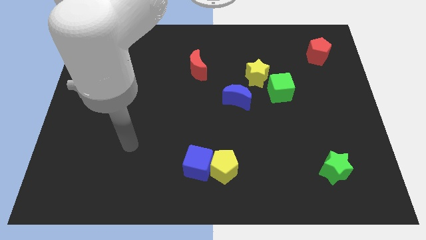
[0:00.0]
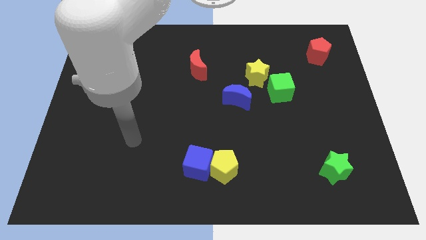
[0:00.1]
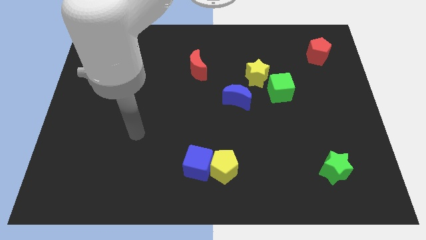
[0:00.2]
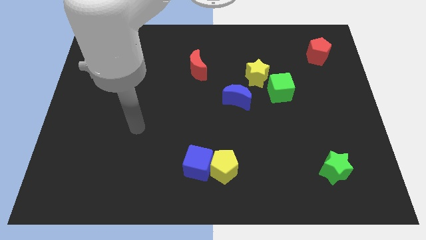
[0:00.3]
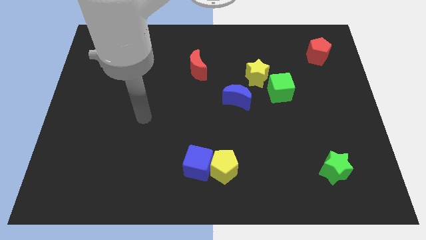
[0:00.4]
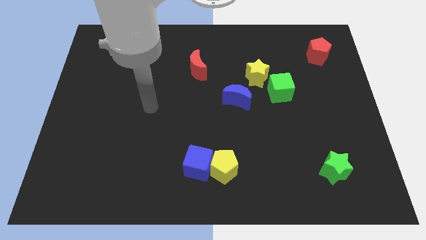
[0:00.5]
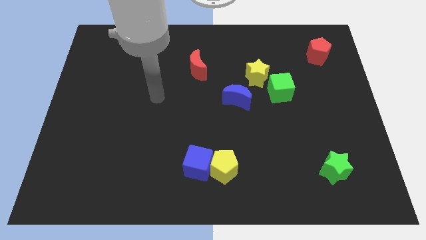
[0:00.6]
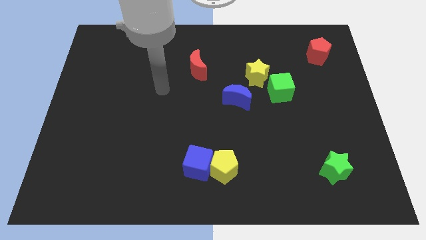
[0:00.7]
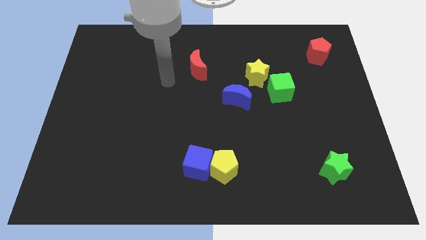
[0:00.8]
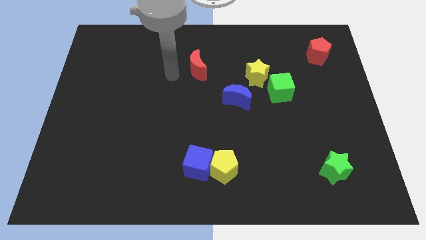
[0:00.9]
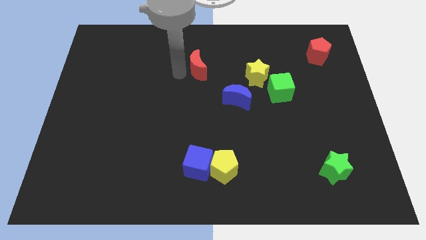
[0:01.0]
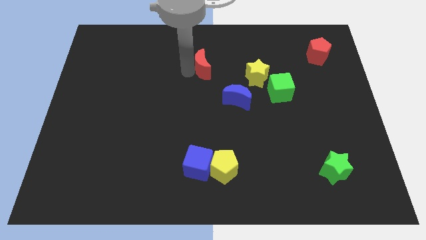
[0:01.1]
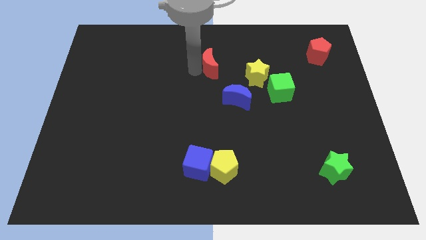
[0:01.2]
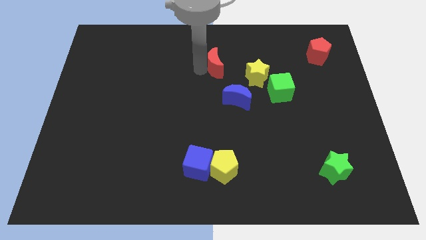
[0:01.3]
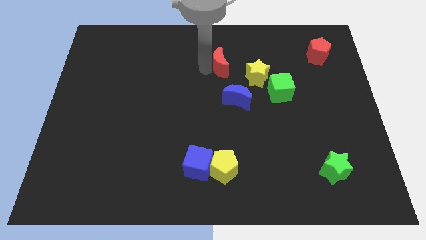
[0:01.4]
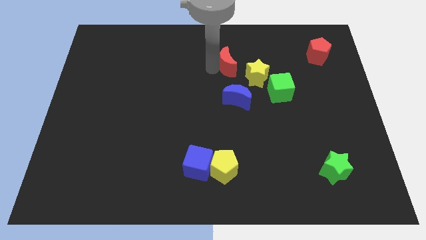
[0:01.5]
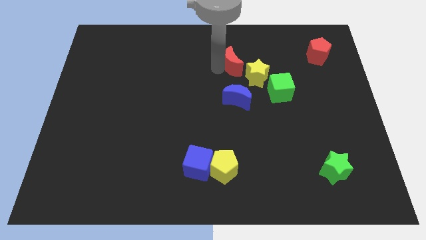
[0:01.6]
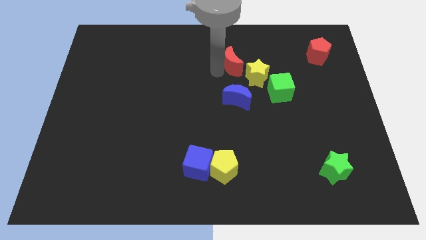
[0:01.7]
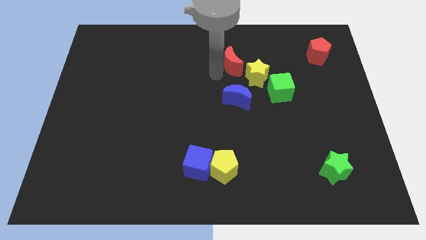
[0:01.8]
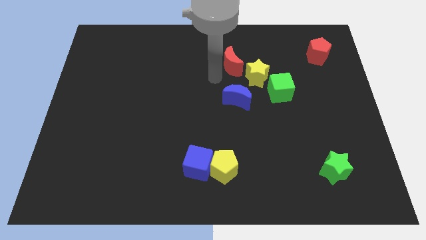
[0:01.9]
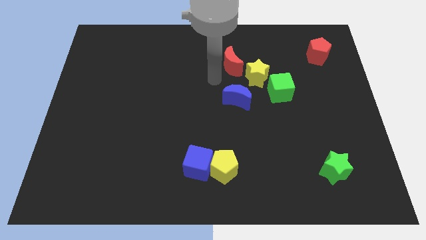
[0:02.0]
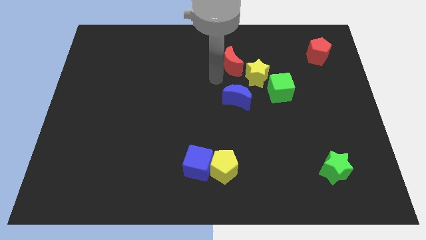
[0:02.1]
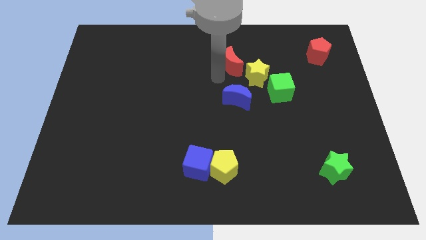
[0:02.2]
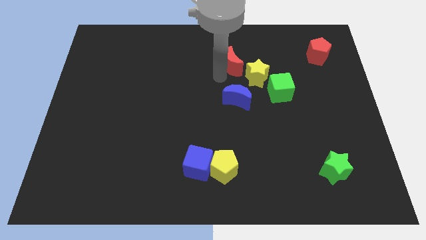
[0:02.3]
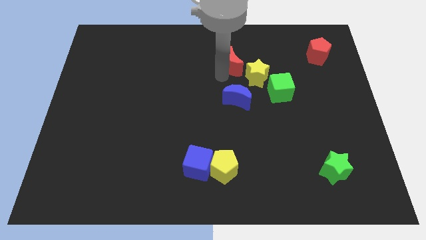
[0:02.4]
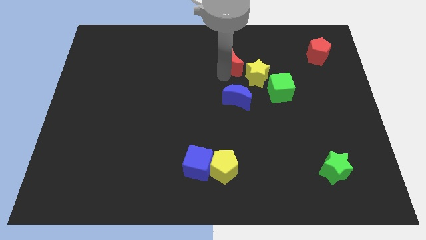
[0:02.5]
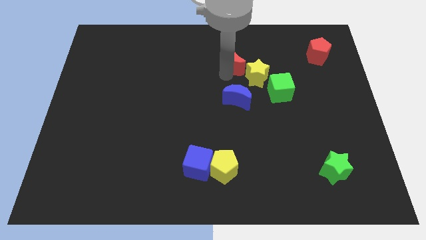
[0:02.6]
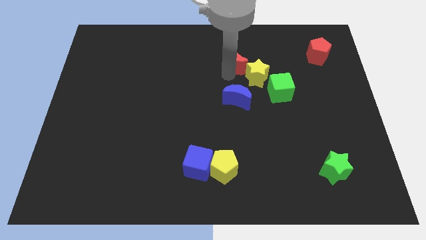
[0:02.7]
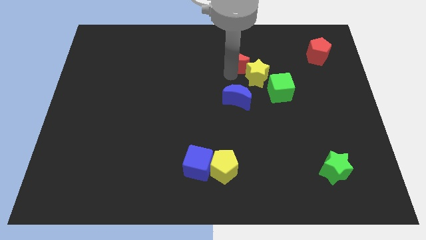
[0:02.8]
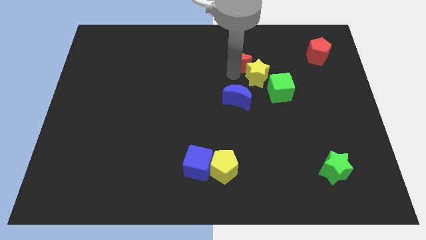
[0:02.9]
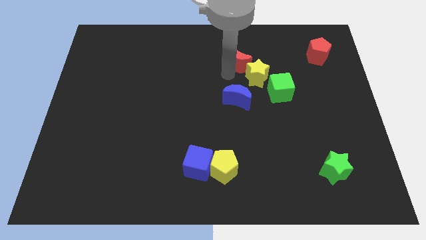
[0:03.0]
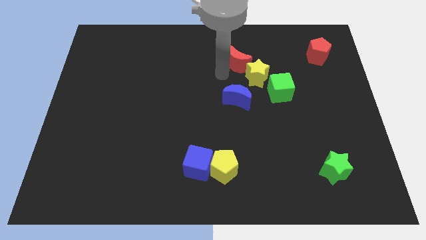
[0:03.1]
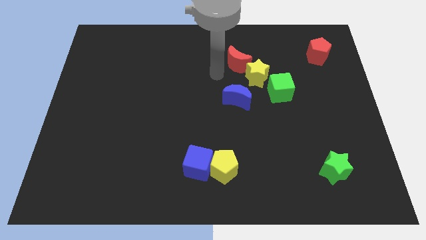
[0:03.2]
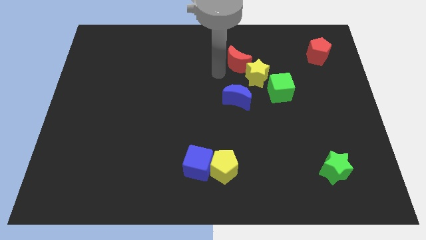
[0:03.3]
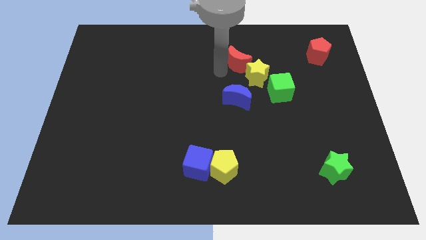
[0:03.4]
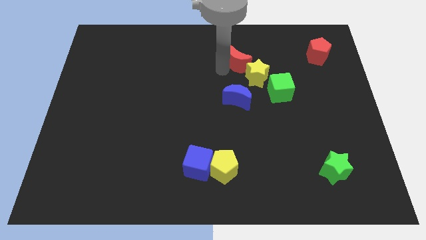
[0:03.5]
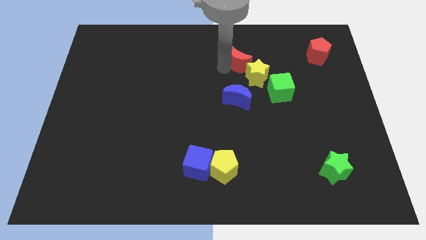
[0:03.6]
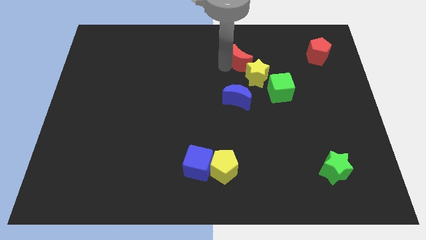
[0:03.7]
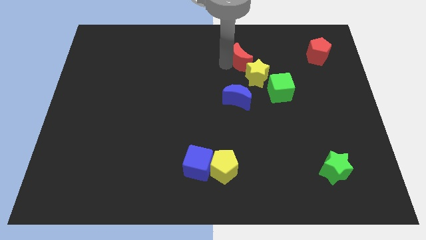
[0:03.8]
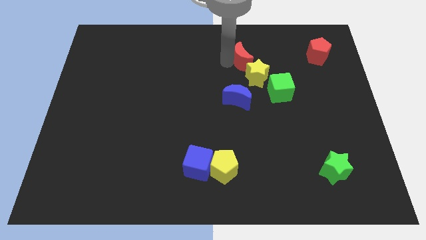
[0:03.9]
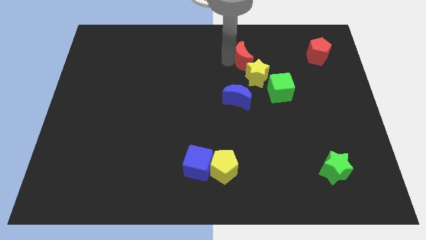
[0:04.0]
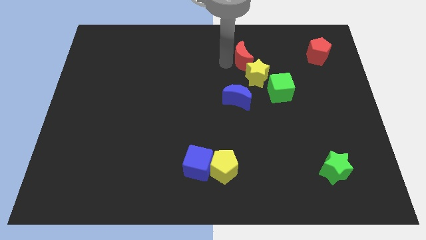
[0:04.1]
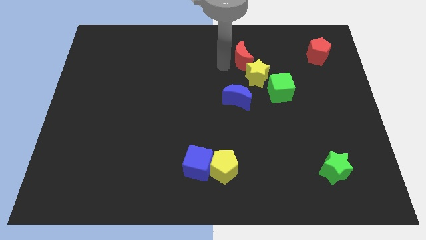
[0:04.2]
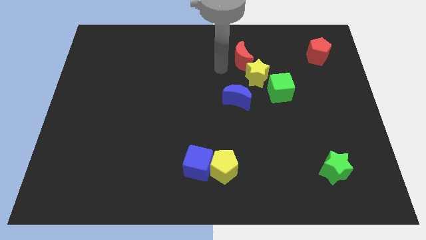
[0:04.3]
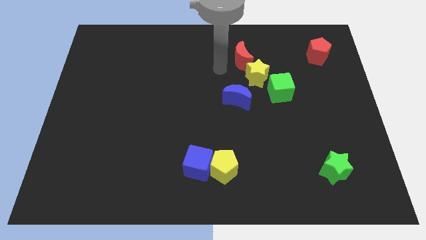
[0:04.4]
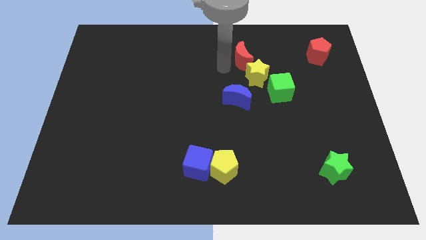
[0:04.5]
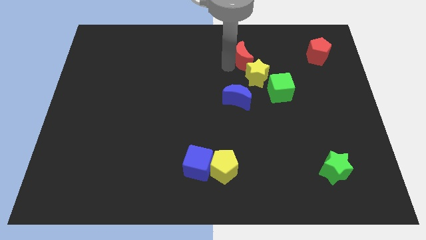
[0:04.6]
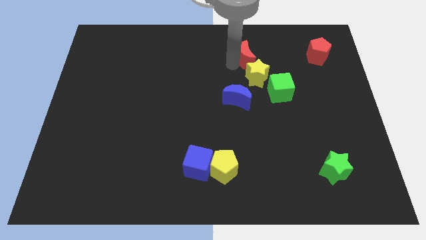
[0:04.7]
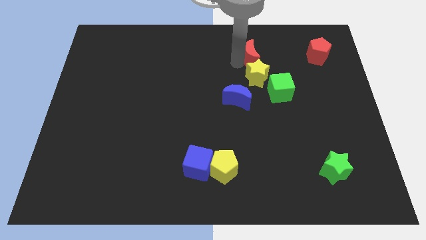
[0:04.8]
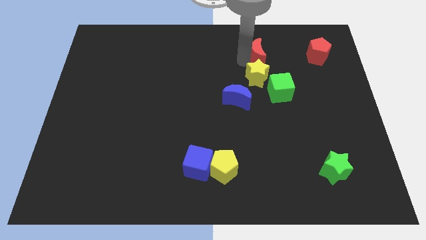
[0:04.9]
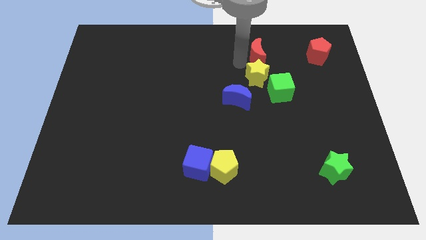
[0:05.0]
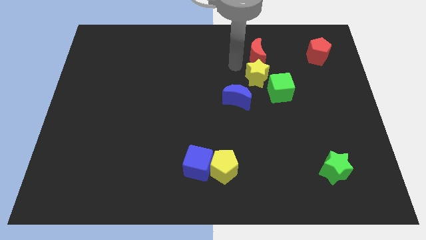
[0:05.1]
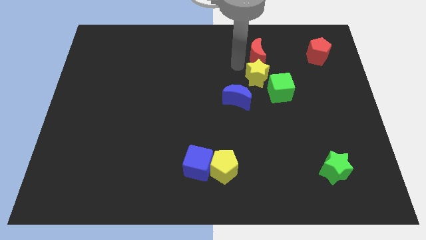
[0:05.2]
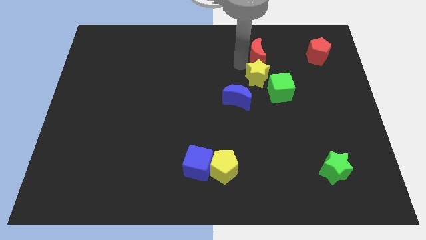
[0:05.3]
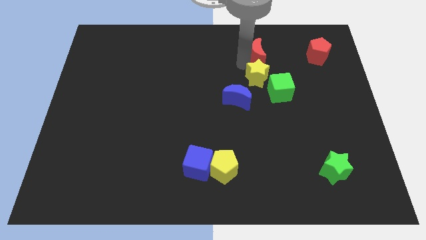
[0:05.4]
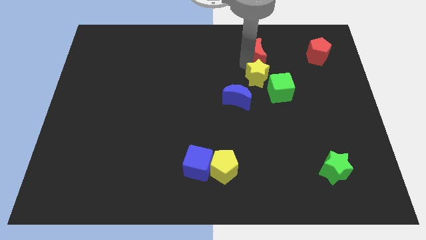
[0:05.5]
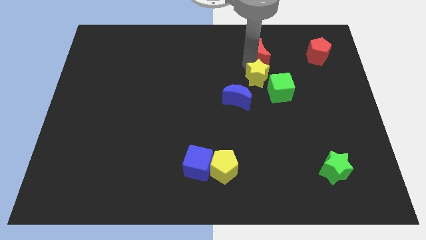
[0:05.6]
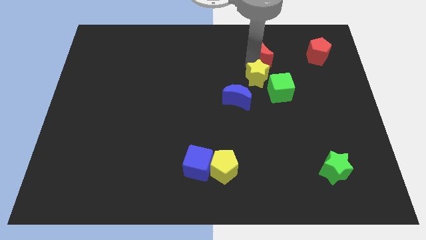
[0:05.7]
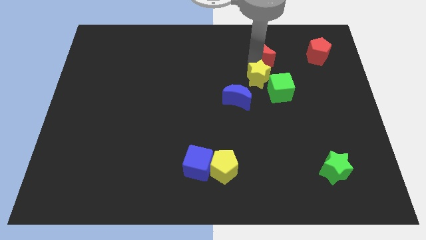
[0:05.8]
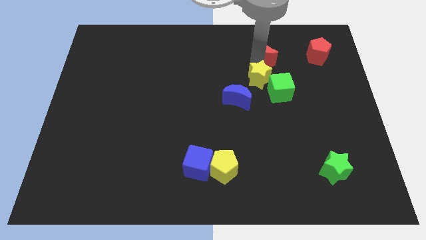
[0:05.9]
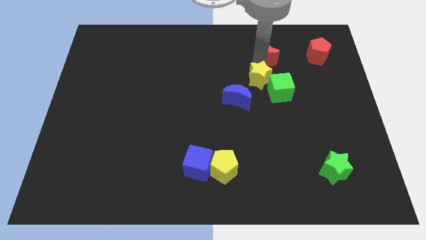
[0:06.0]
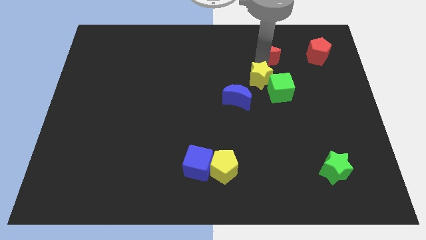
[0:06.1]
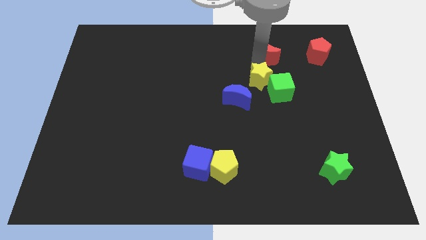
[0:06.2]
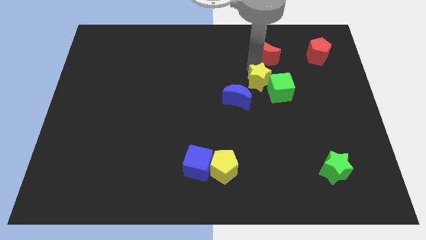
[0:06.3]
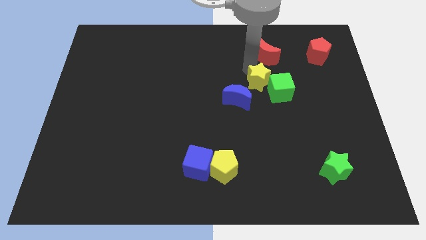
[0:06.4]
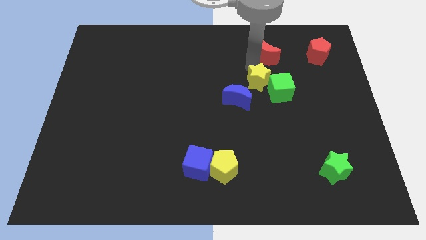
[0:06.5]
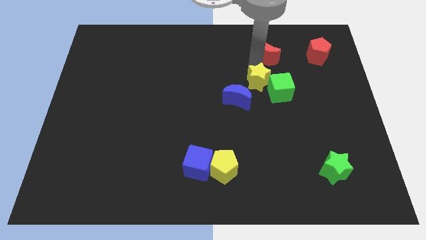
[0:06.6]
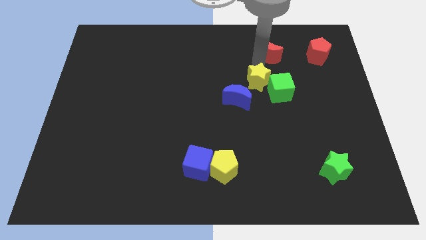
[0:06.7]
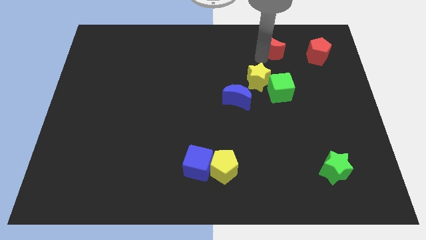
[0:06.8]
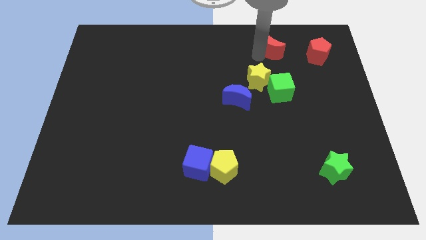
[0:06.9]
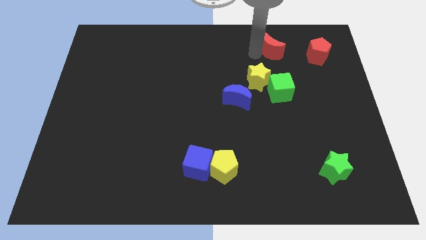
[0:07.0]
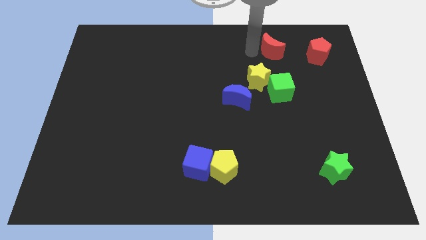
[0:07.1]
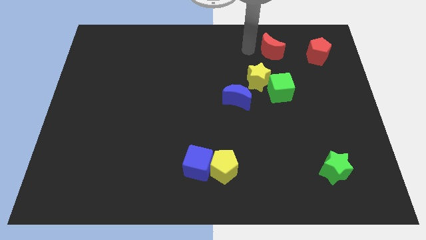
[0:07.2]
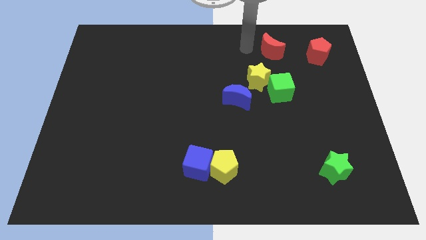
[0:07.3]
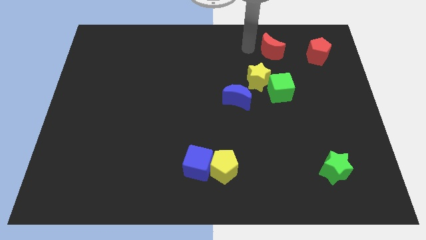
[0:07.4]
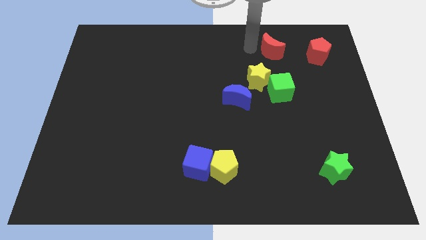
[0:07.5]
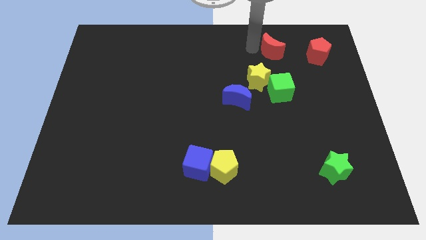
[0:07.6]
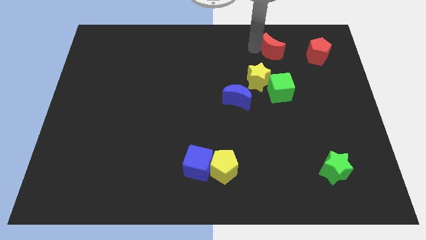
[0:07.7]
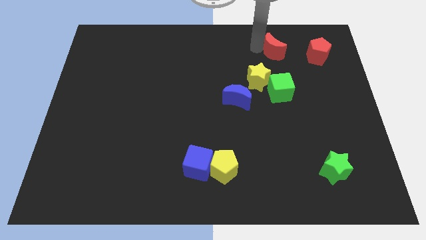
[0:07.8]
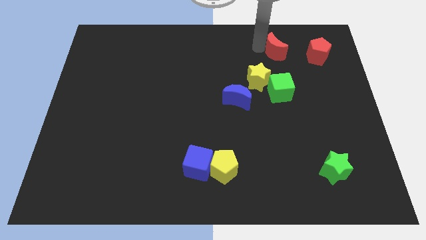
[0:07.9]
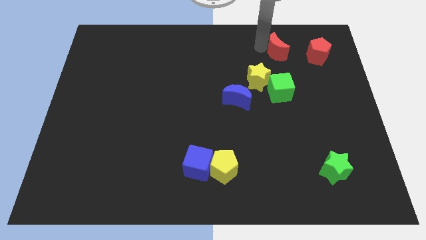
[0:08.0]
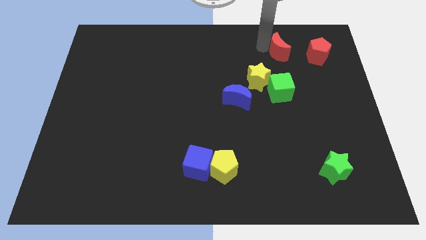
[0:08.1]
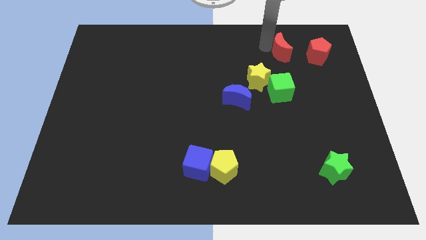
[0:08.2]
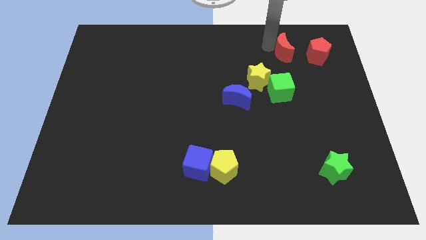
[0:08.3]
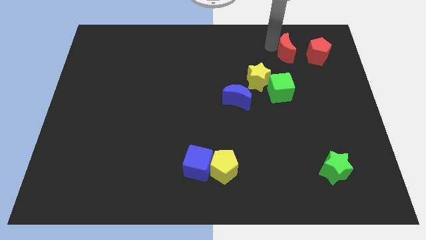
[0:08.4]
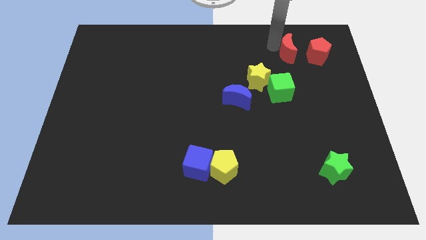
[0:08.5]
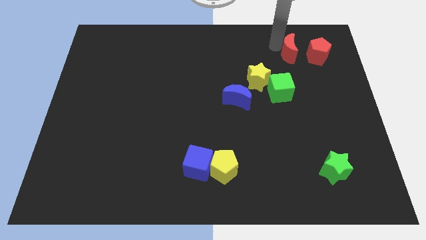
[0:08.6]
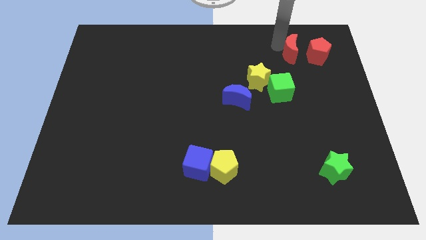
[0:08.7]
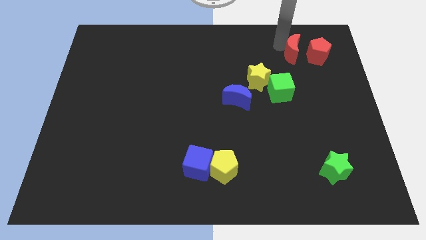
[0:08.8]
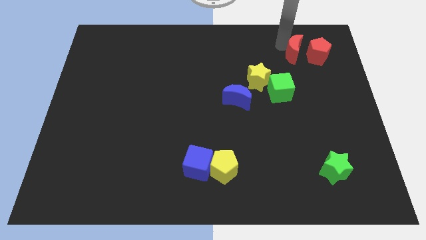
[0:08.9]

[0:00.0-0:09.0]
push the red moon towards the red pentagon
